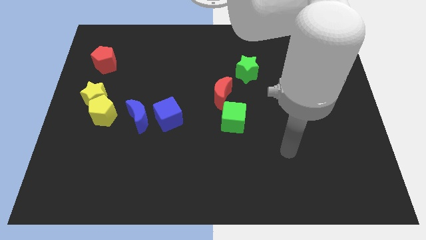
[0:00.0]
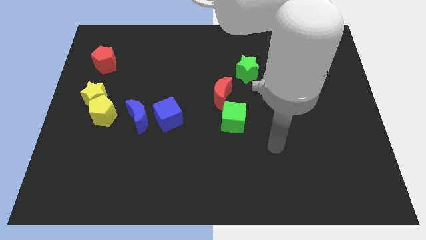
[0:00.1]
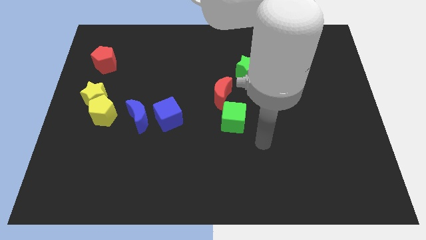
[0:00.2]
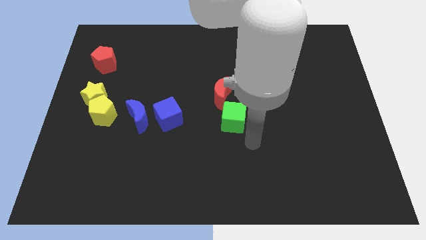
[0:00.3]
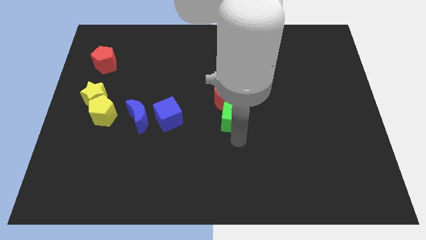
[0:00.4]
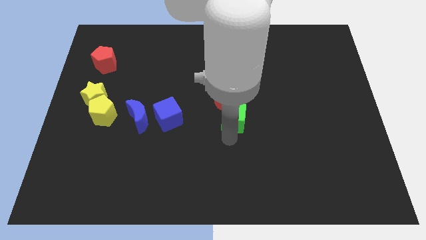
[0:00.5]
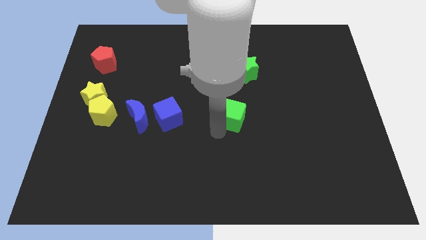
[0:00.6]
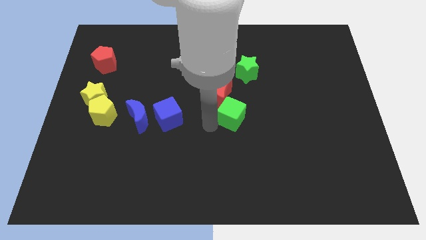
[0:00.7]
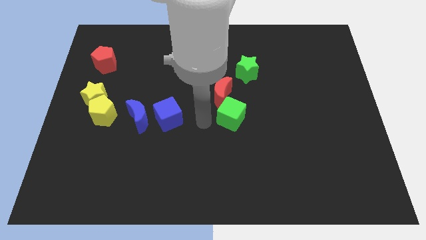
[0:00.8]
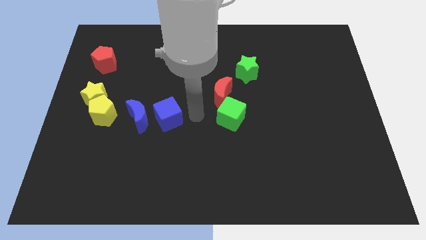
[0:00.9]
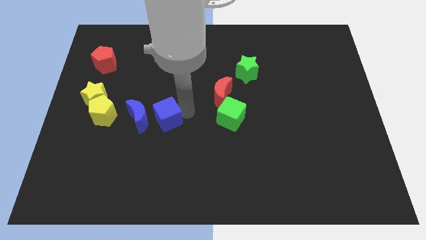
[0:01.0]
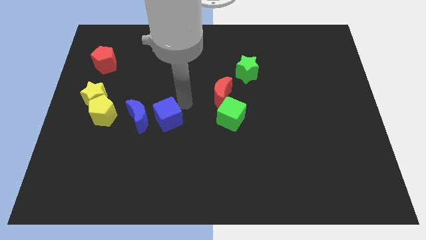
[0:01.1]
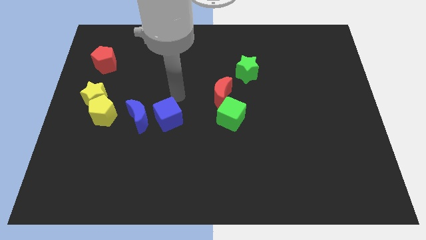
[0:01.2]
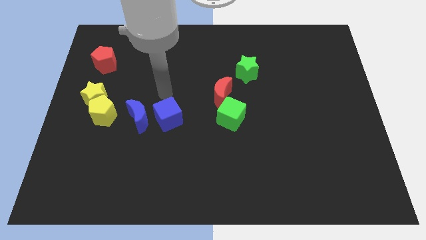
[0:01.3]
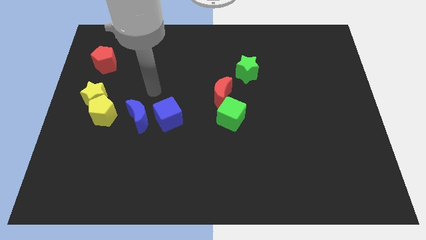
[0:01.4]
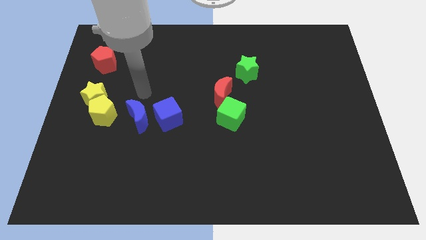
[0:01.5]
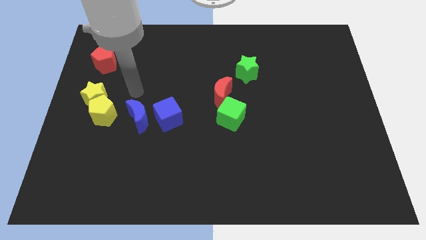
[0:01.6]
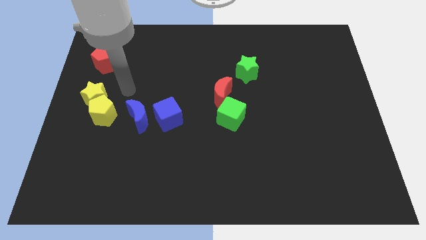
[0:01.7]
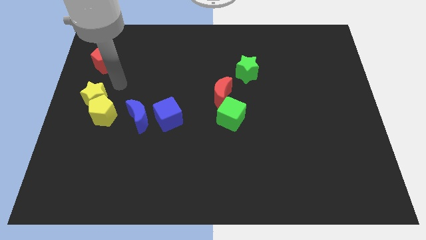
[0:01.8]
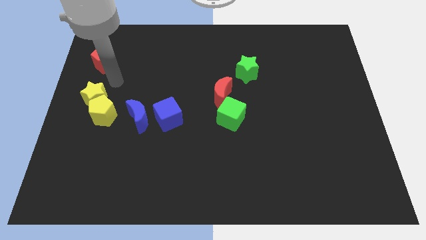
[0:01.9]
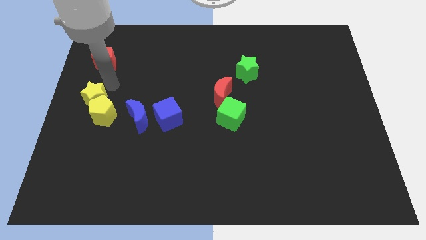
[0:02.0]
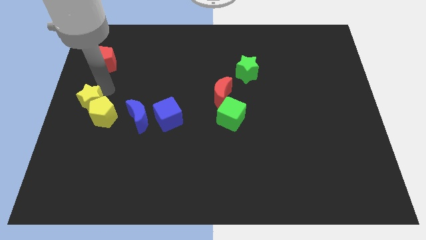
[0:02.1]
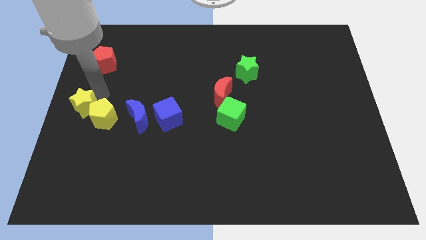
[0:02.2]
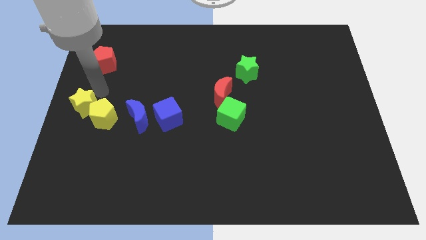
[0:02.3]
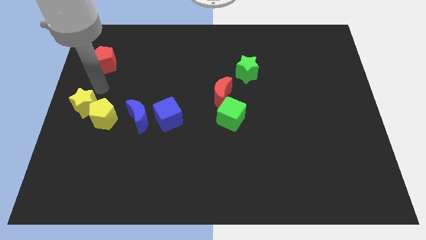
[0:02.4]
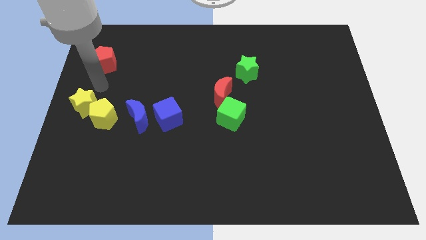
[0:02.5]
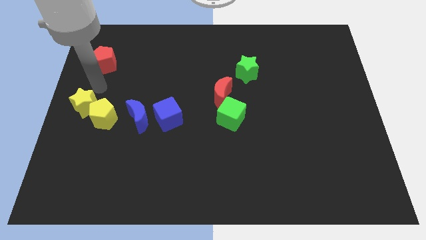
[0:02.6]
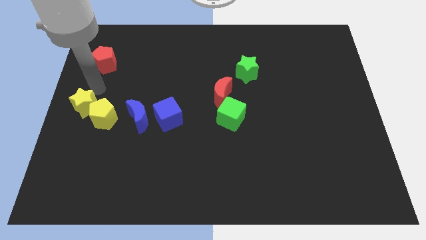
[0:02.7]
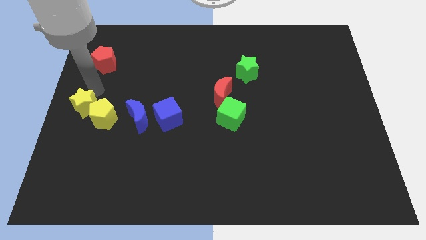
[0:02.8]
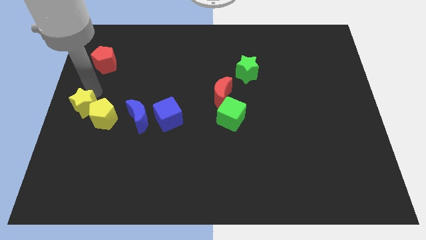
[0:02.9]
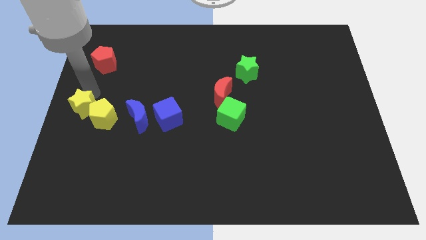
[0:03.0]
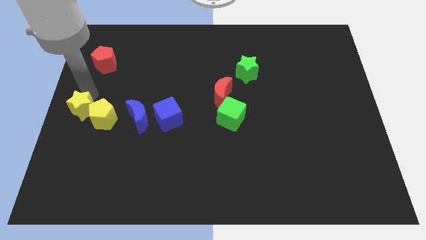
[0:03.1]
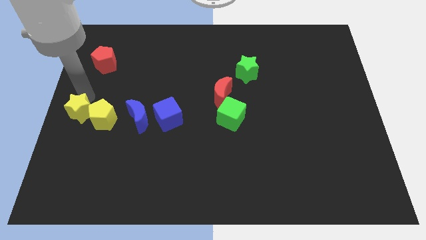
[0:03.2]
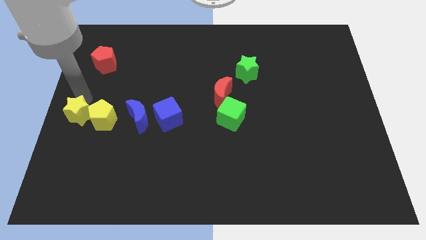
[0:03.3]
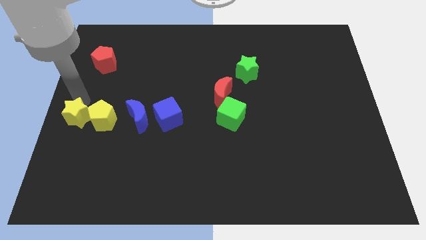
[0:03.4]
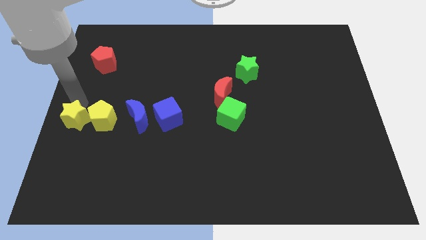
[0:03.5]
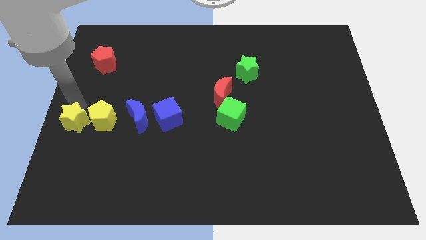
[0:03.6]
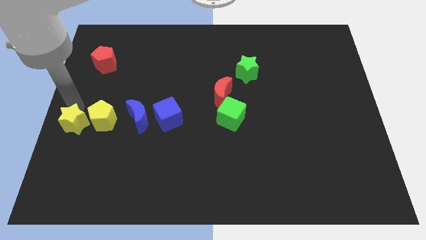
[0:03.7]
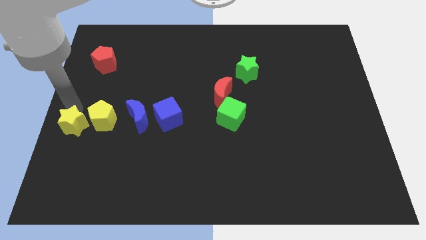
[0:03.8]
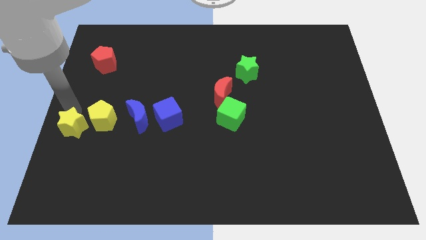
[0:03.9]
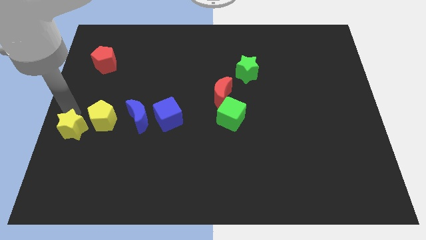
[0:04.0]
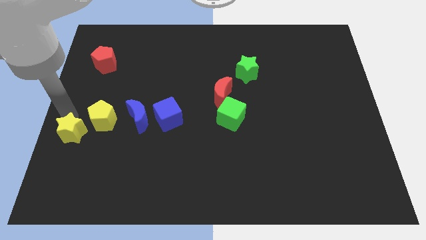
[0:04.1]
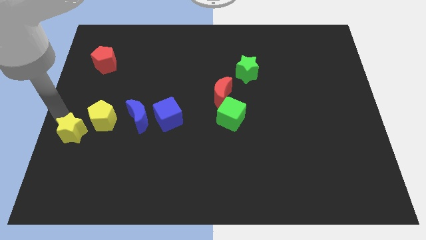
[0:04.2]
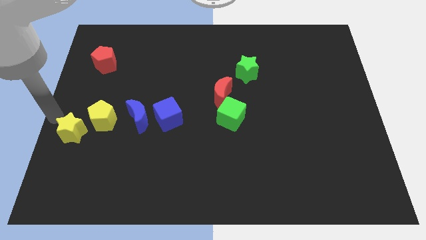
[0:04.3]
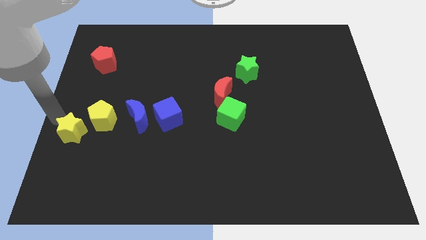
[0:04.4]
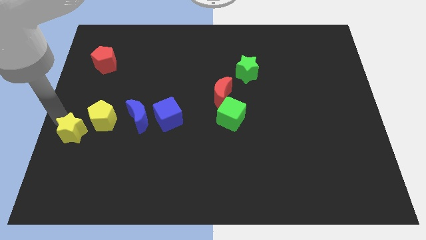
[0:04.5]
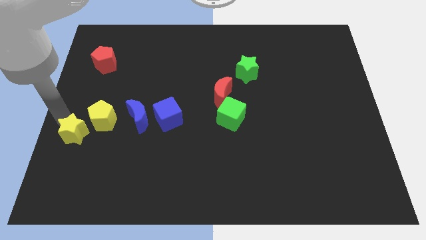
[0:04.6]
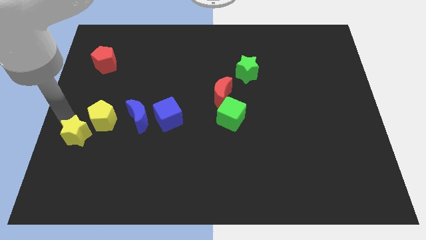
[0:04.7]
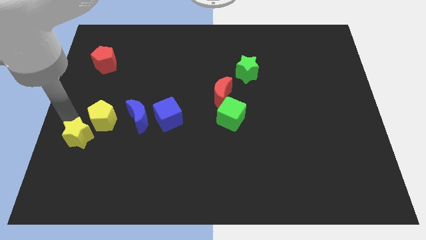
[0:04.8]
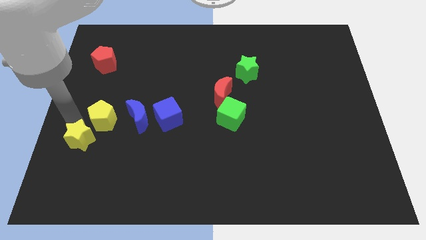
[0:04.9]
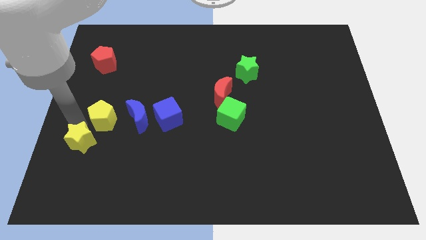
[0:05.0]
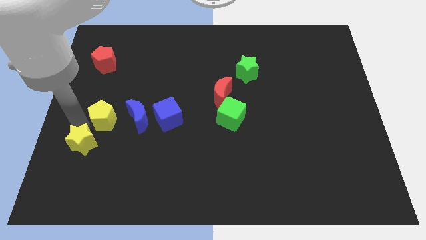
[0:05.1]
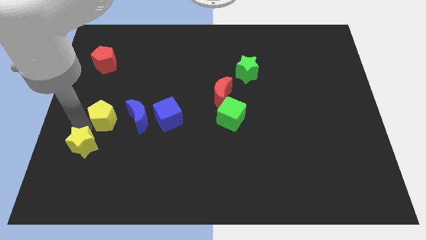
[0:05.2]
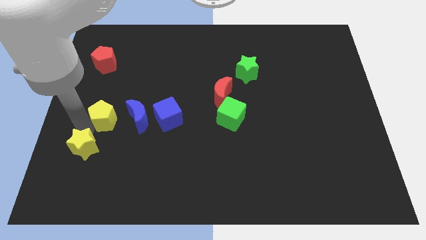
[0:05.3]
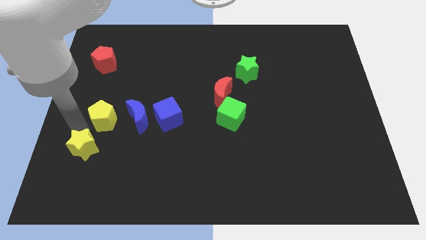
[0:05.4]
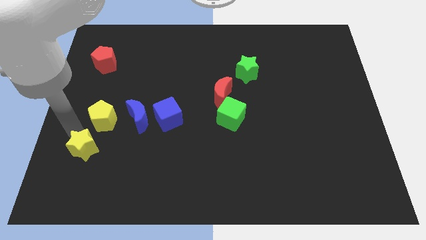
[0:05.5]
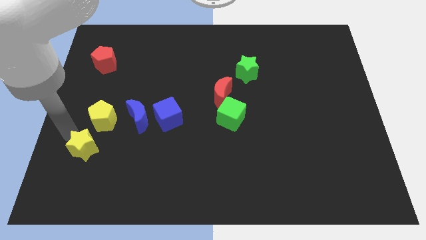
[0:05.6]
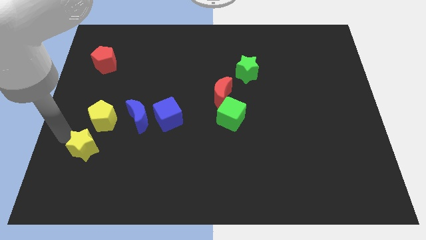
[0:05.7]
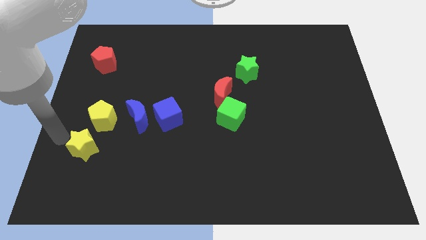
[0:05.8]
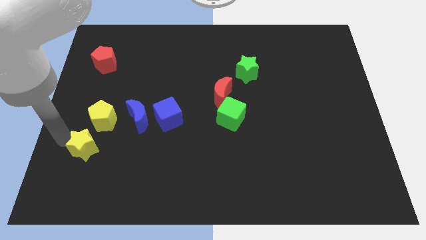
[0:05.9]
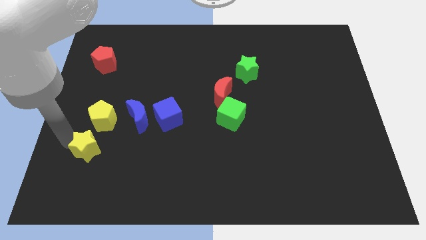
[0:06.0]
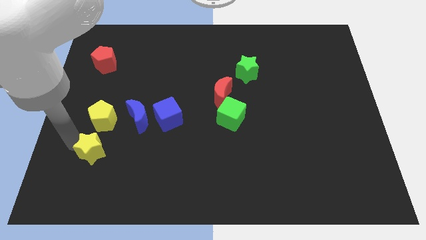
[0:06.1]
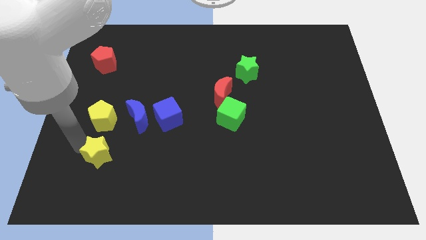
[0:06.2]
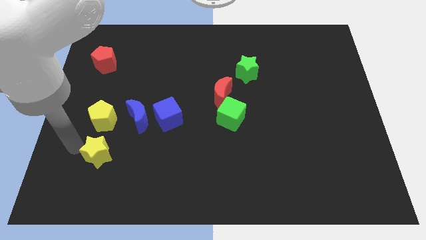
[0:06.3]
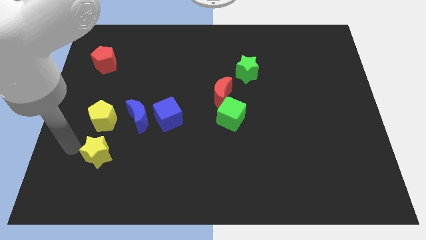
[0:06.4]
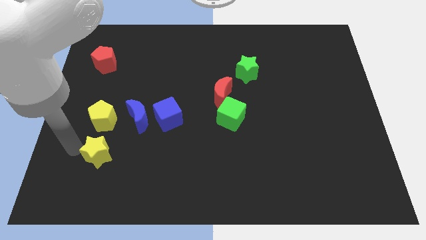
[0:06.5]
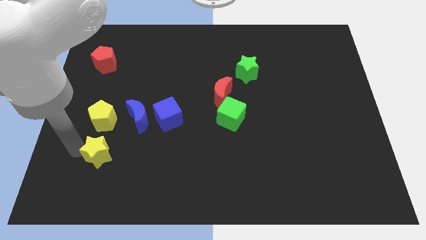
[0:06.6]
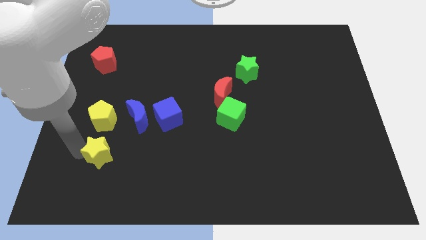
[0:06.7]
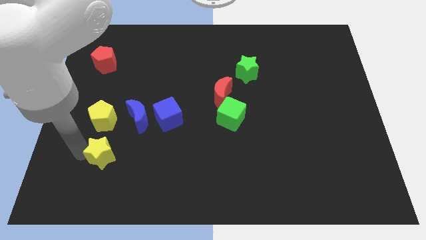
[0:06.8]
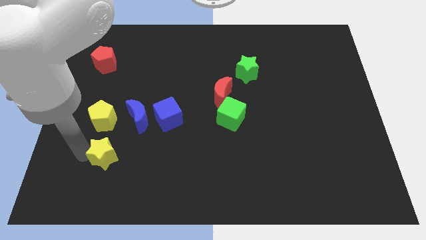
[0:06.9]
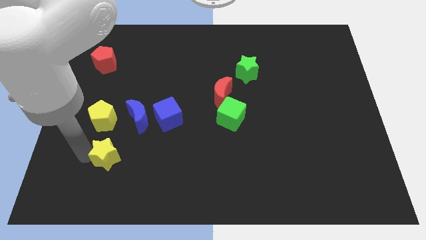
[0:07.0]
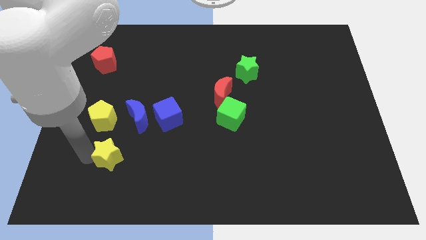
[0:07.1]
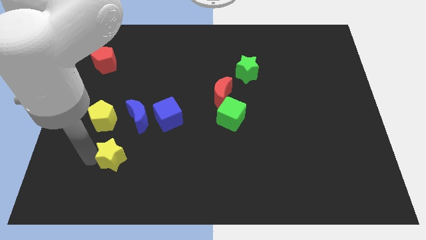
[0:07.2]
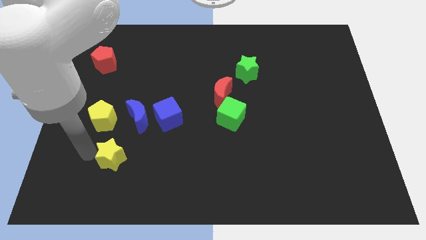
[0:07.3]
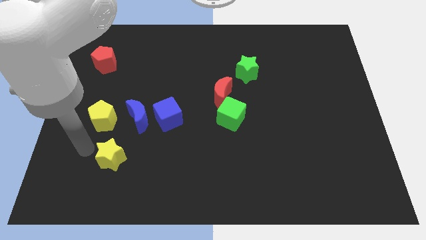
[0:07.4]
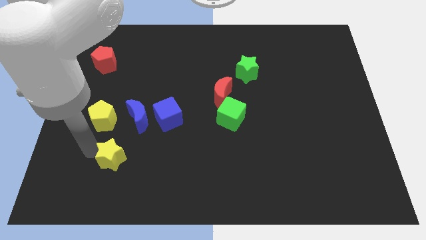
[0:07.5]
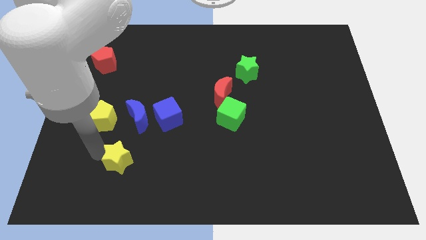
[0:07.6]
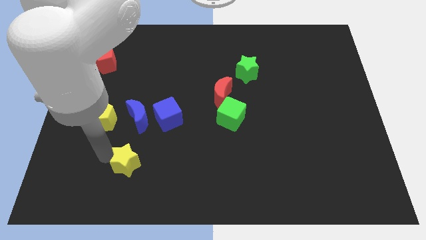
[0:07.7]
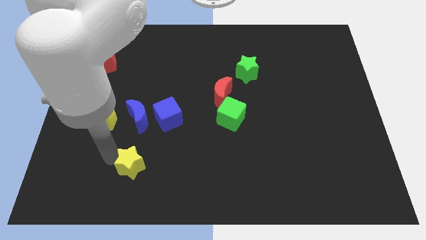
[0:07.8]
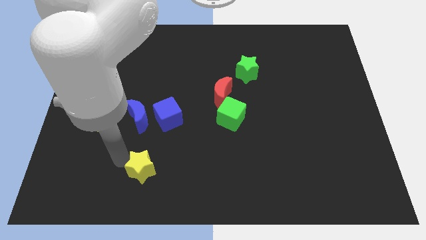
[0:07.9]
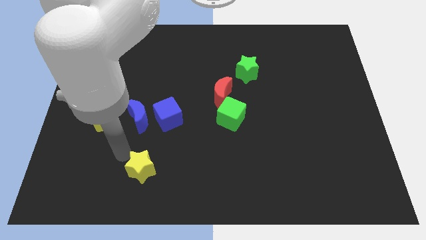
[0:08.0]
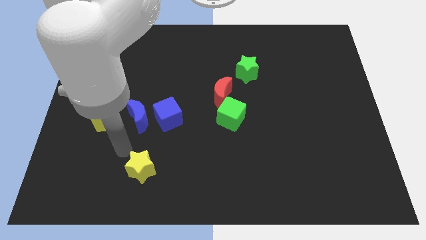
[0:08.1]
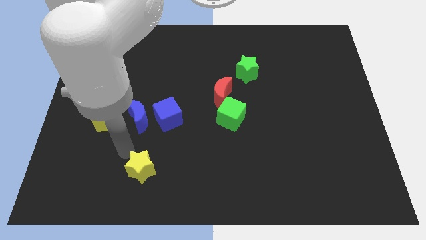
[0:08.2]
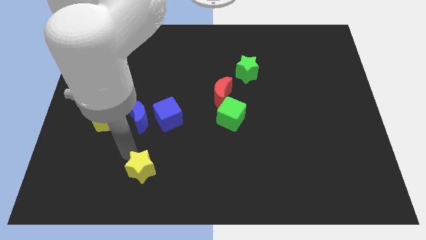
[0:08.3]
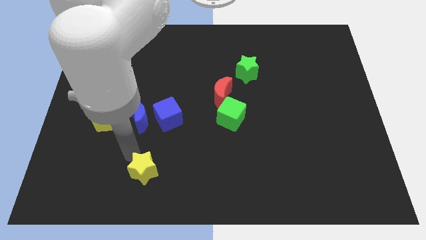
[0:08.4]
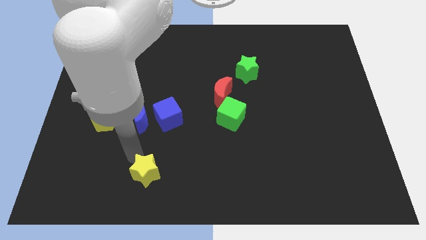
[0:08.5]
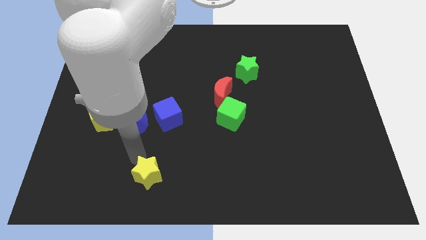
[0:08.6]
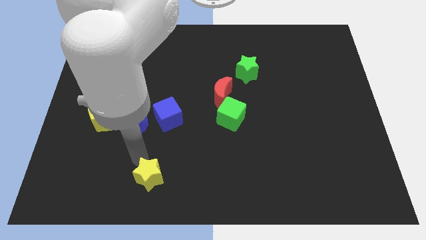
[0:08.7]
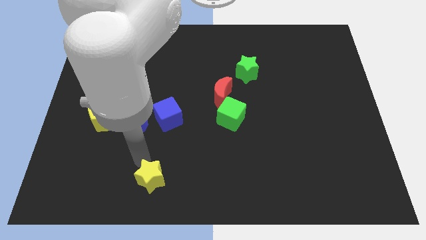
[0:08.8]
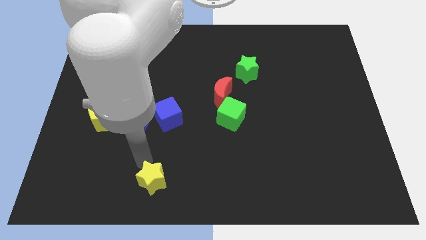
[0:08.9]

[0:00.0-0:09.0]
move the yellow star to the bottom side
